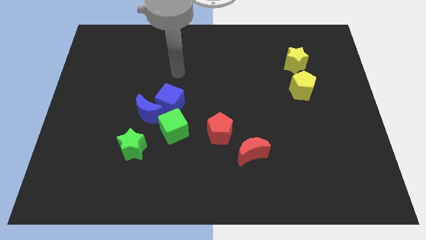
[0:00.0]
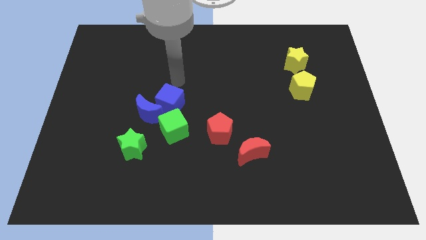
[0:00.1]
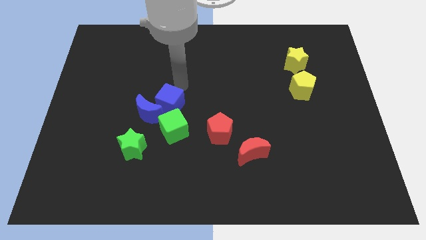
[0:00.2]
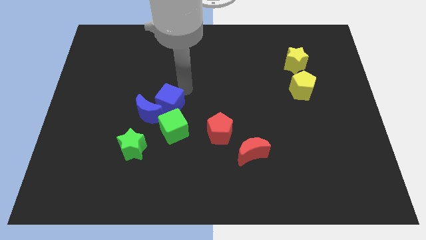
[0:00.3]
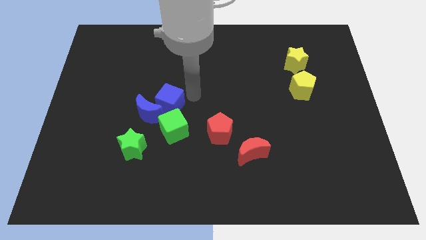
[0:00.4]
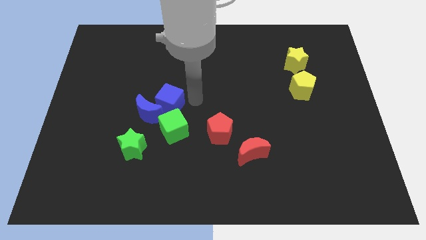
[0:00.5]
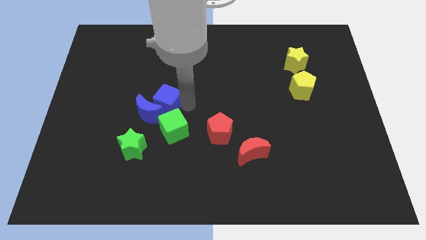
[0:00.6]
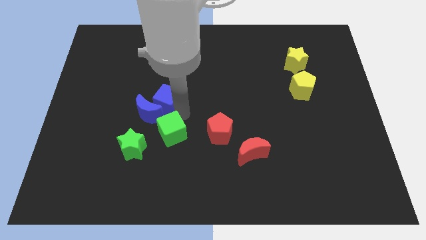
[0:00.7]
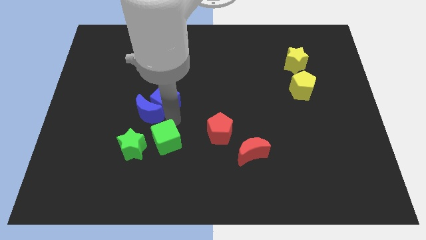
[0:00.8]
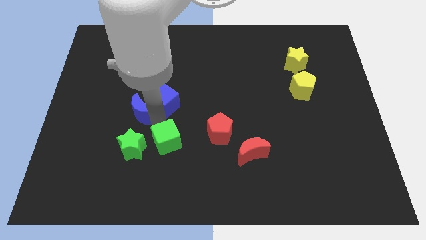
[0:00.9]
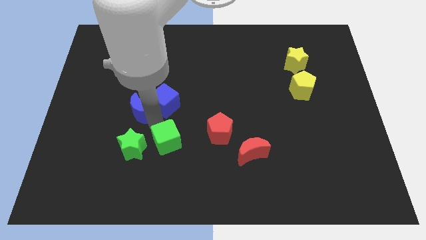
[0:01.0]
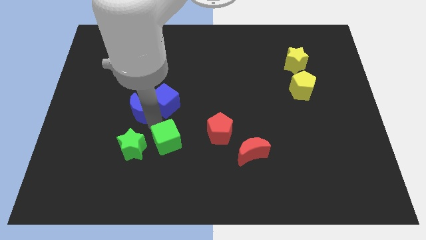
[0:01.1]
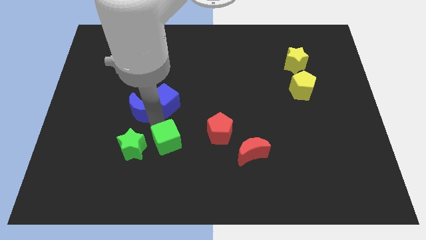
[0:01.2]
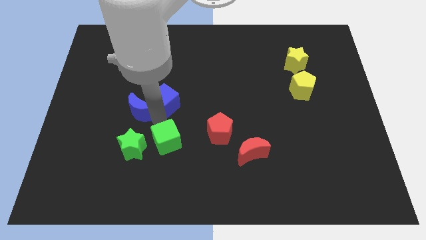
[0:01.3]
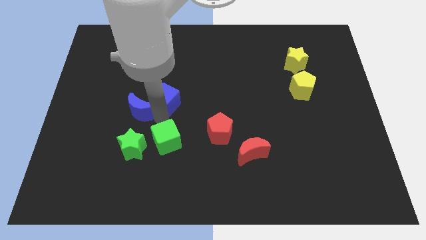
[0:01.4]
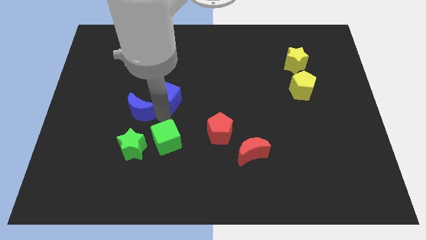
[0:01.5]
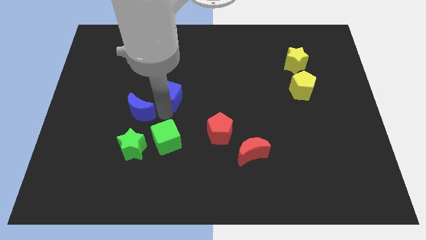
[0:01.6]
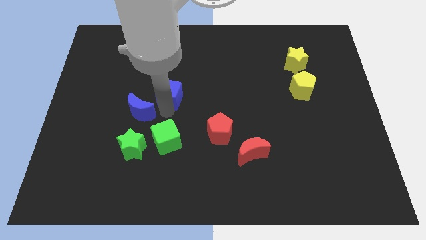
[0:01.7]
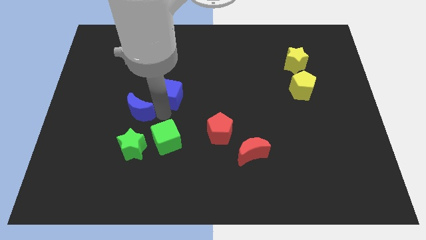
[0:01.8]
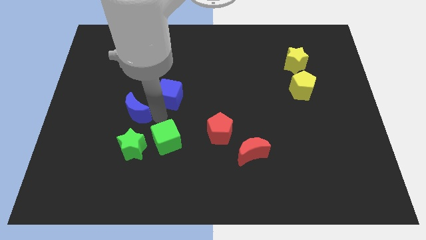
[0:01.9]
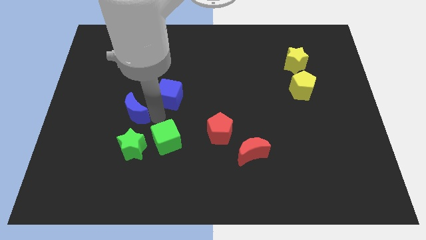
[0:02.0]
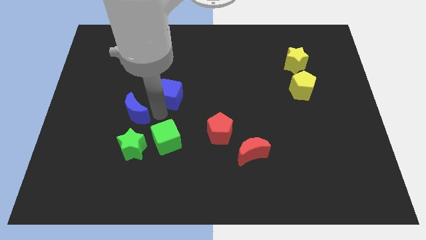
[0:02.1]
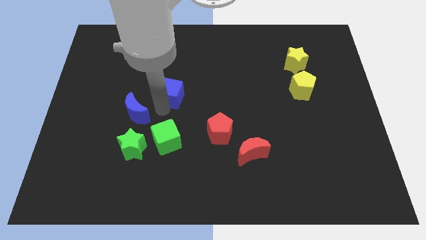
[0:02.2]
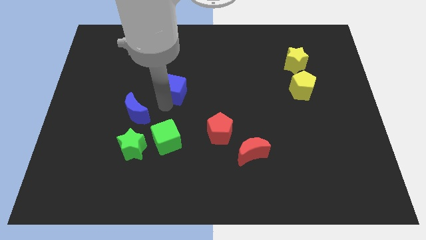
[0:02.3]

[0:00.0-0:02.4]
pull the blue cube apart from the blue moon and green cube

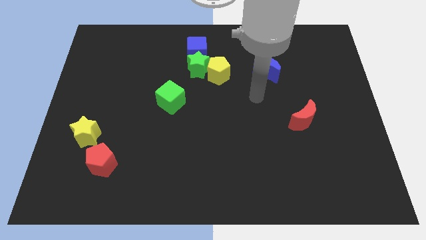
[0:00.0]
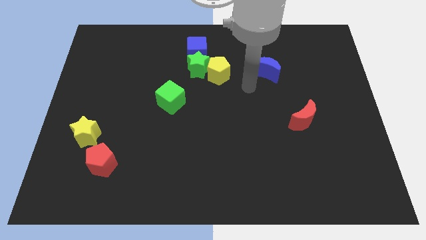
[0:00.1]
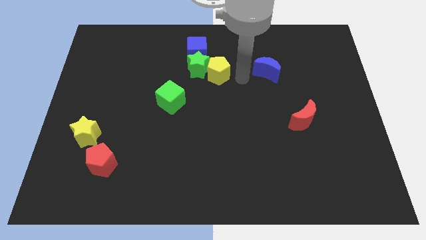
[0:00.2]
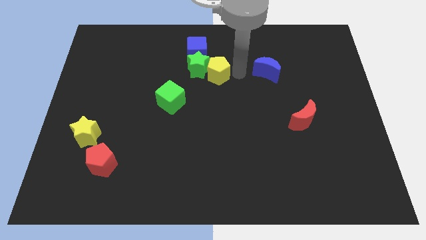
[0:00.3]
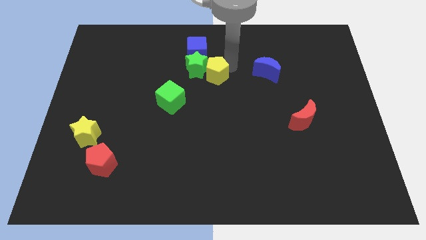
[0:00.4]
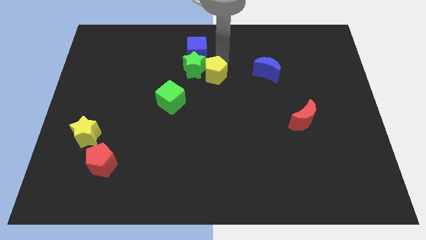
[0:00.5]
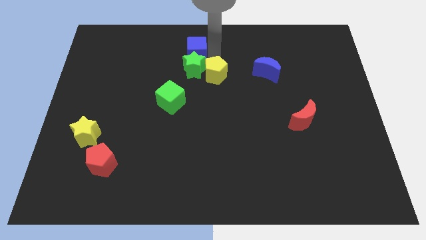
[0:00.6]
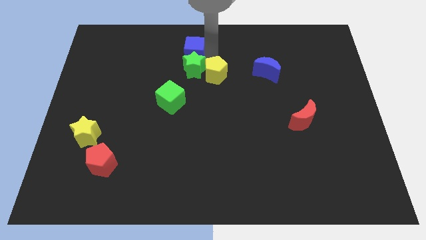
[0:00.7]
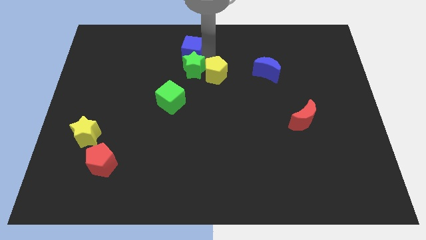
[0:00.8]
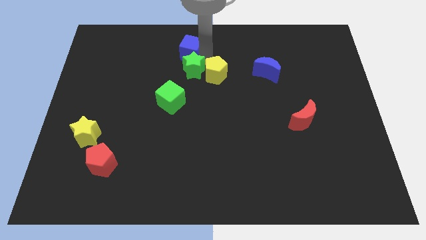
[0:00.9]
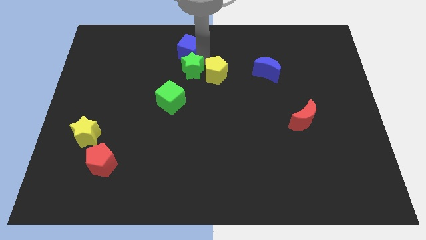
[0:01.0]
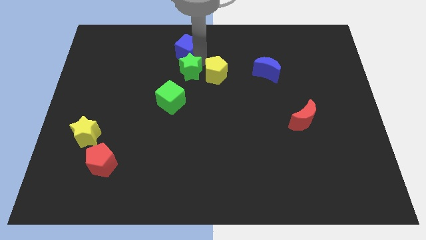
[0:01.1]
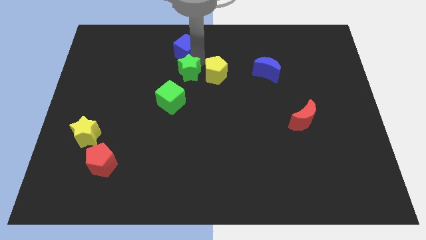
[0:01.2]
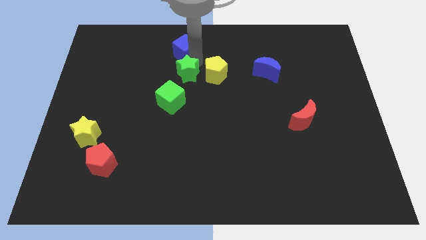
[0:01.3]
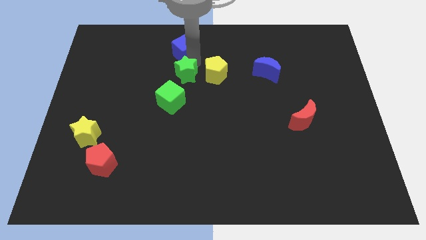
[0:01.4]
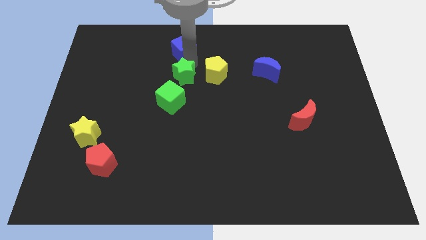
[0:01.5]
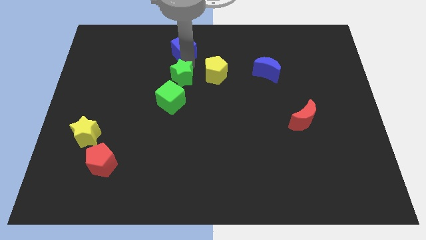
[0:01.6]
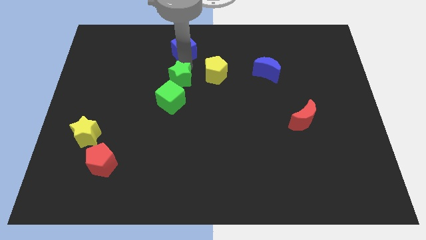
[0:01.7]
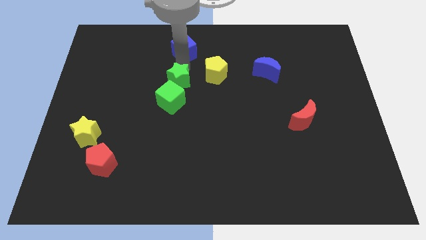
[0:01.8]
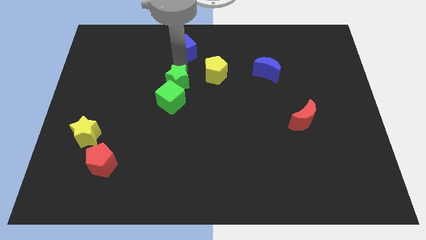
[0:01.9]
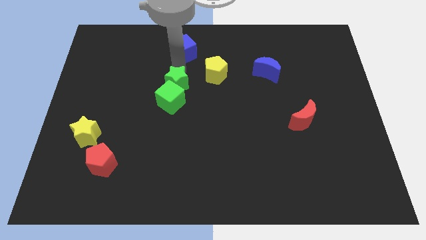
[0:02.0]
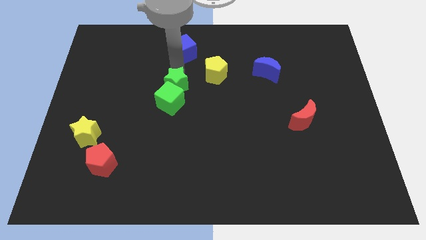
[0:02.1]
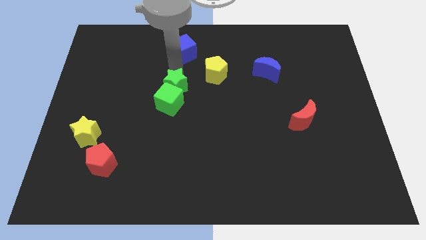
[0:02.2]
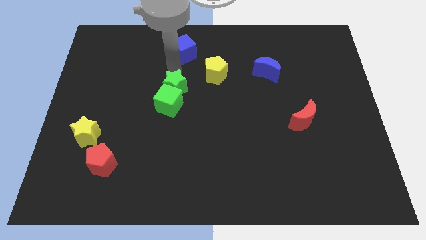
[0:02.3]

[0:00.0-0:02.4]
move the green star away from the blue cube and yellow pentagon

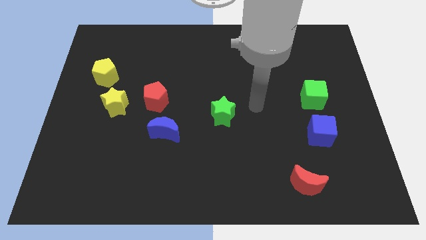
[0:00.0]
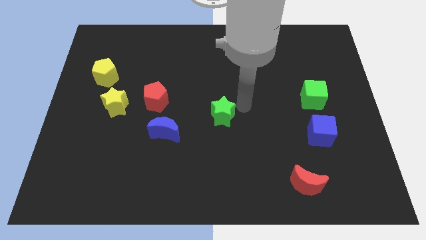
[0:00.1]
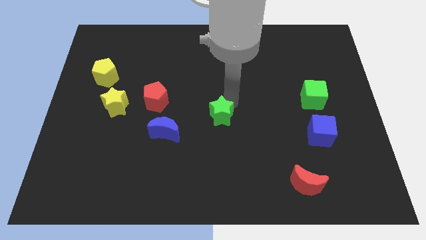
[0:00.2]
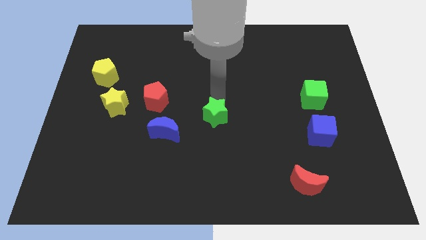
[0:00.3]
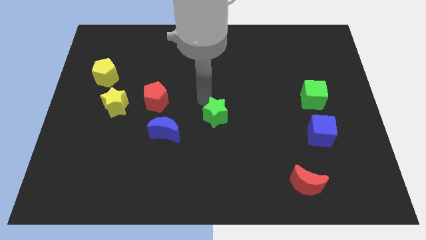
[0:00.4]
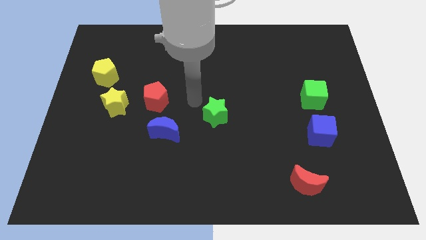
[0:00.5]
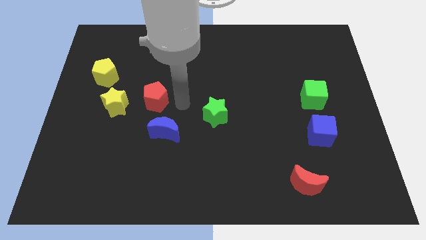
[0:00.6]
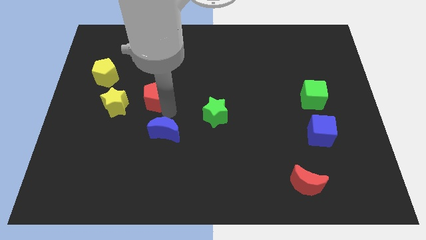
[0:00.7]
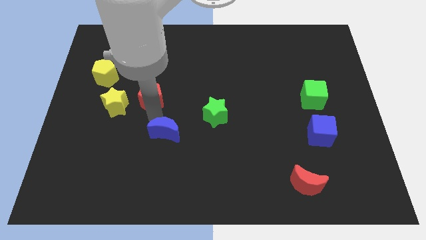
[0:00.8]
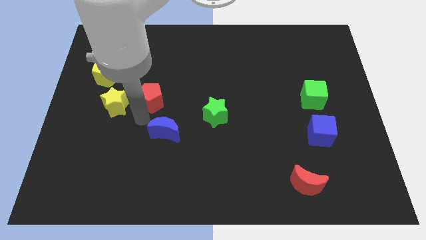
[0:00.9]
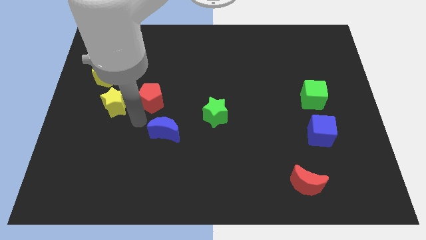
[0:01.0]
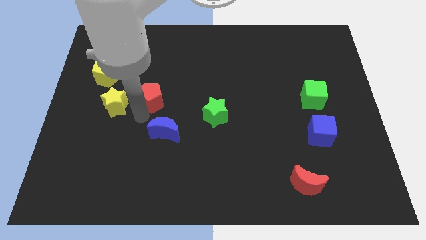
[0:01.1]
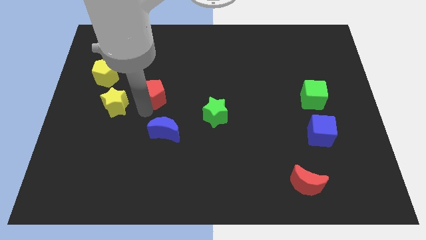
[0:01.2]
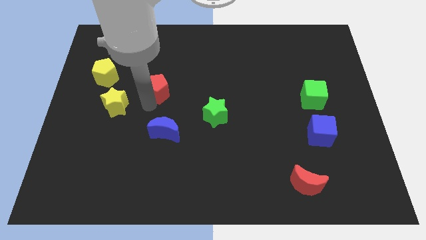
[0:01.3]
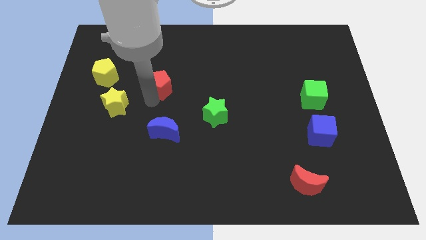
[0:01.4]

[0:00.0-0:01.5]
move the red pentagon away from the yellow star and blue moon

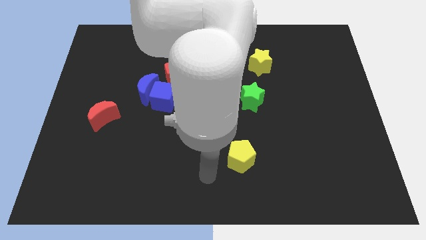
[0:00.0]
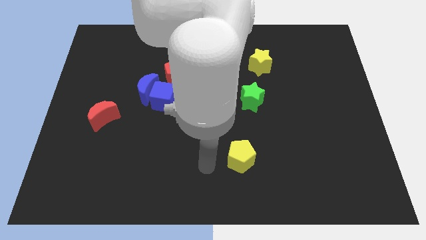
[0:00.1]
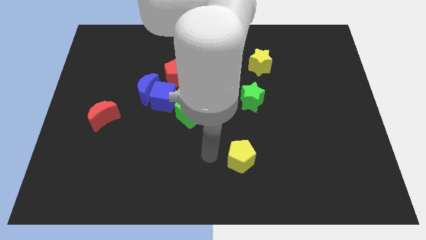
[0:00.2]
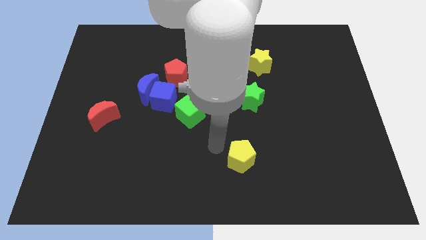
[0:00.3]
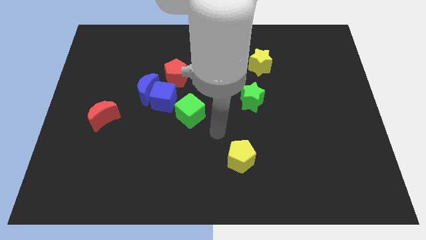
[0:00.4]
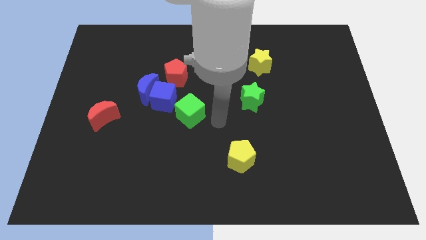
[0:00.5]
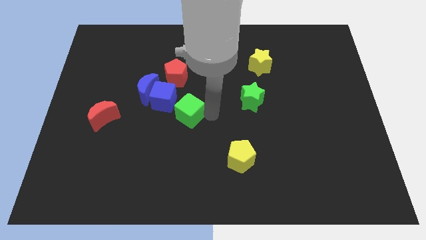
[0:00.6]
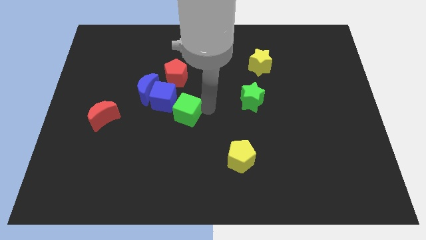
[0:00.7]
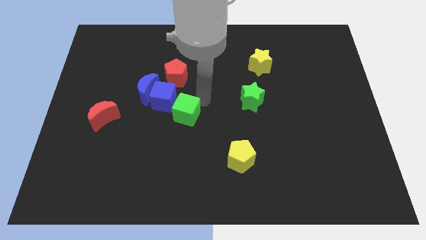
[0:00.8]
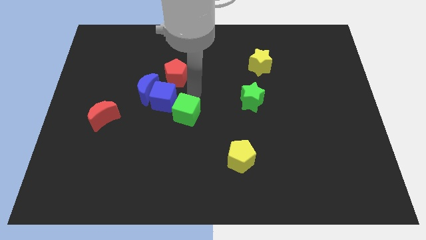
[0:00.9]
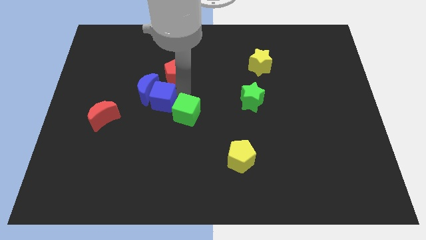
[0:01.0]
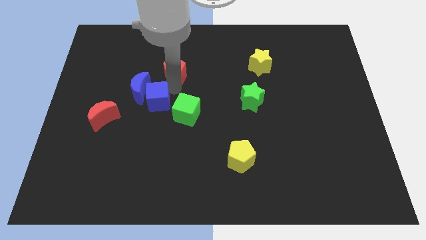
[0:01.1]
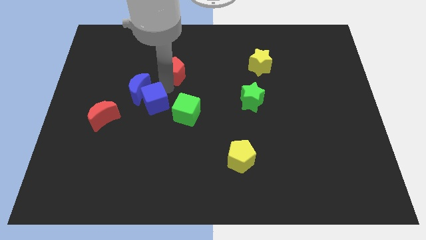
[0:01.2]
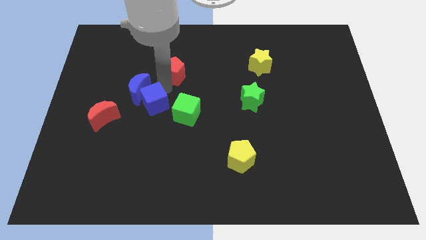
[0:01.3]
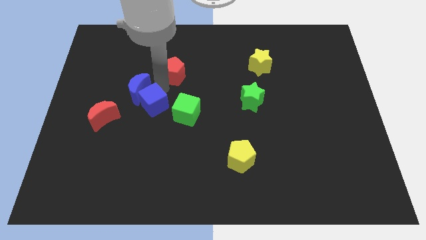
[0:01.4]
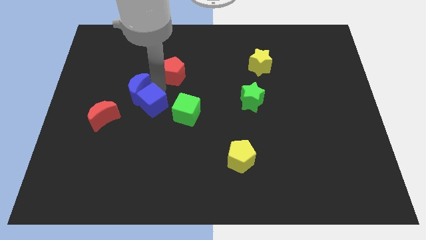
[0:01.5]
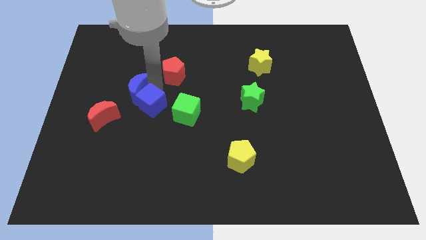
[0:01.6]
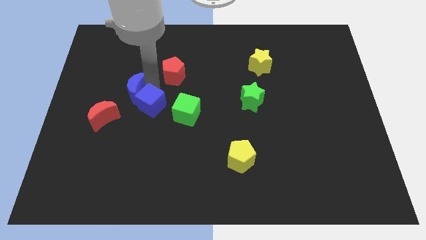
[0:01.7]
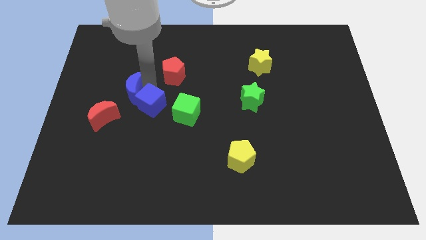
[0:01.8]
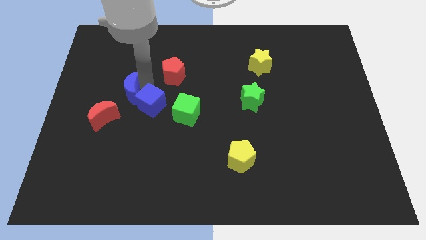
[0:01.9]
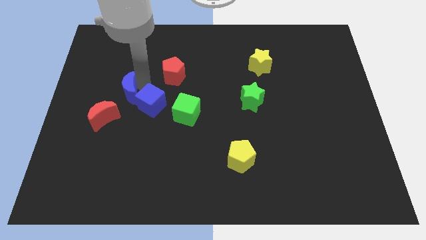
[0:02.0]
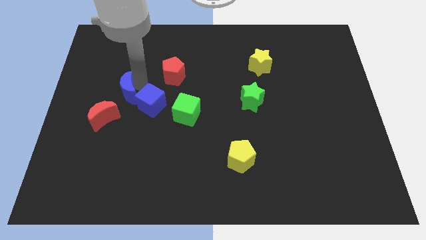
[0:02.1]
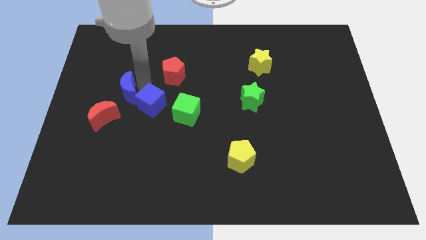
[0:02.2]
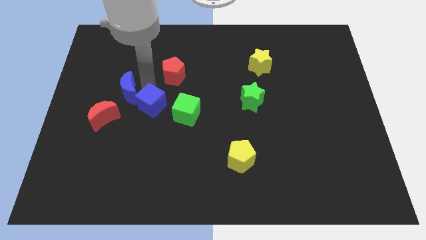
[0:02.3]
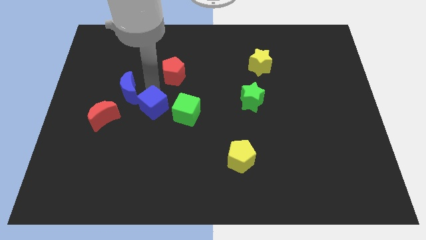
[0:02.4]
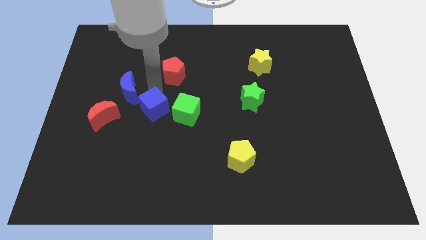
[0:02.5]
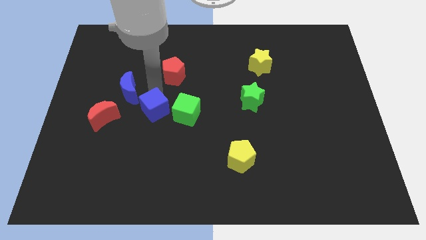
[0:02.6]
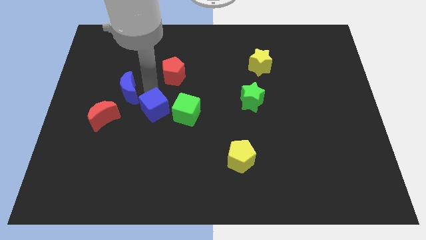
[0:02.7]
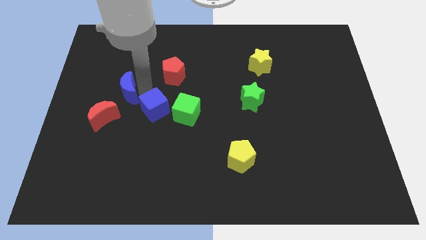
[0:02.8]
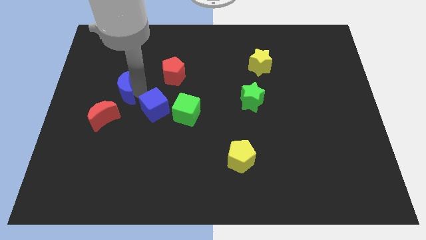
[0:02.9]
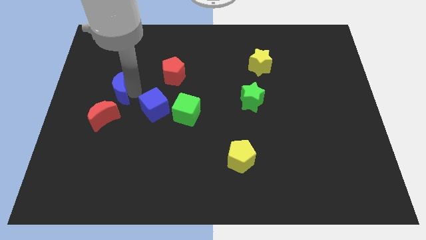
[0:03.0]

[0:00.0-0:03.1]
separate the blue moon from the blue cube and red pentagon

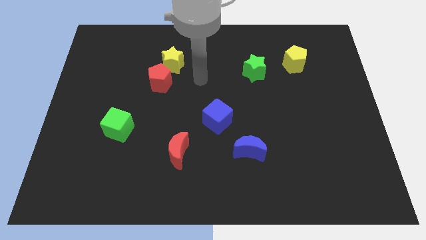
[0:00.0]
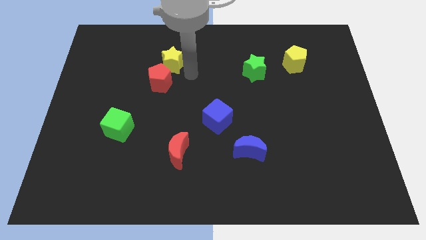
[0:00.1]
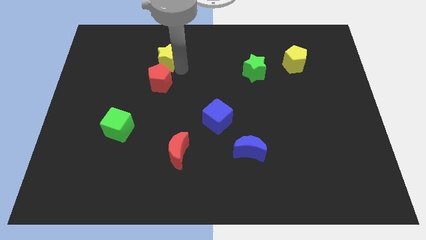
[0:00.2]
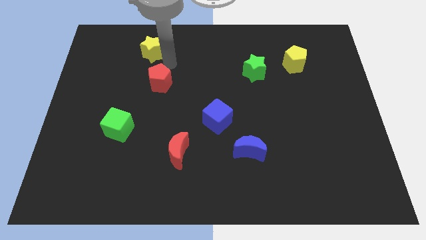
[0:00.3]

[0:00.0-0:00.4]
separate the red pentagon from the yellow star
